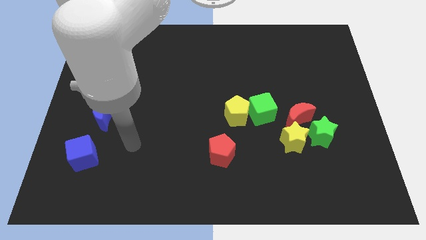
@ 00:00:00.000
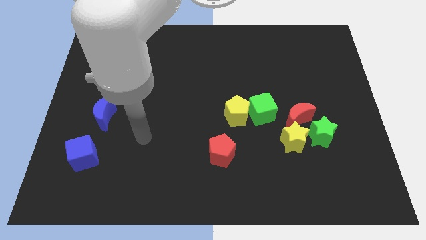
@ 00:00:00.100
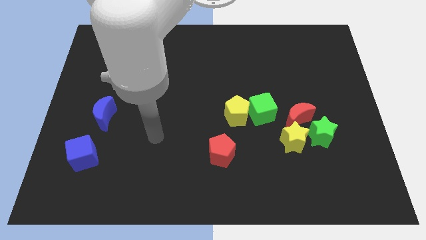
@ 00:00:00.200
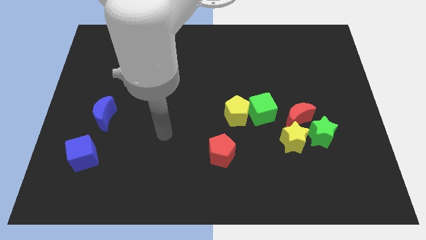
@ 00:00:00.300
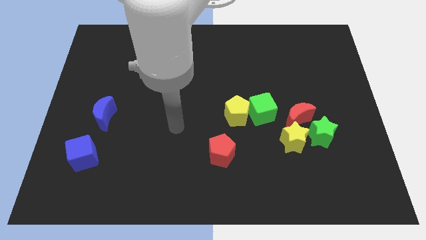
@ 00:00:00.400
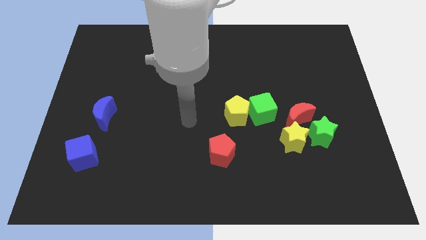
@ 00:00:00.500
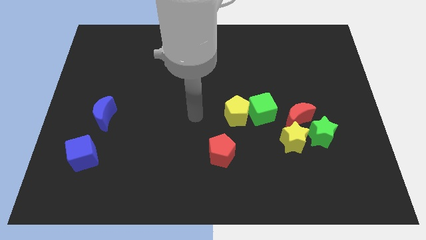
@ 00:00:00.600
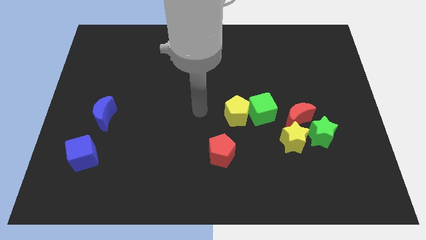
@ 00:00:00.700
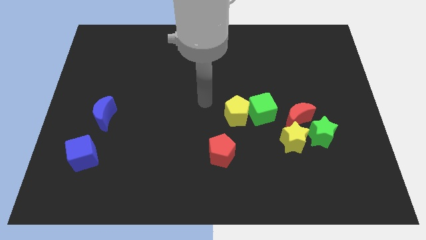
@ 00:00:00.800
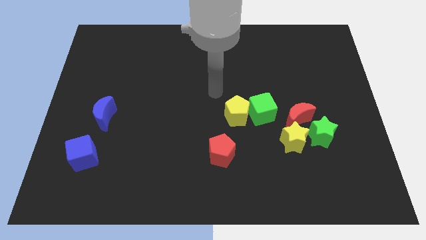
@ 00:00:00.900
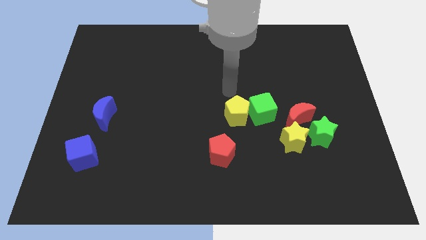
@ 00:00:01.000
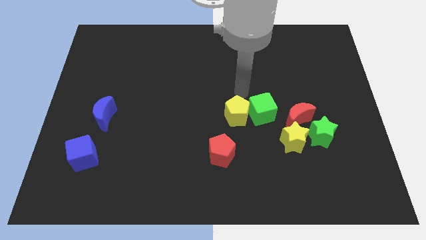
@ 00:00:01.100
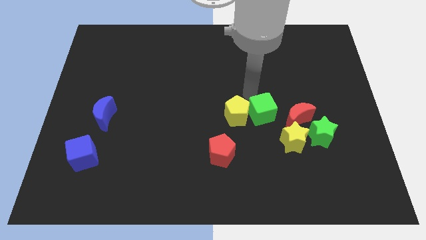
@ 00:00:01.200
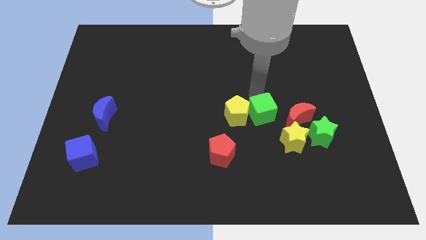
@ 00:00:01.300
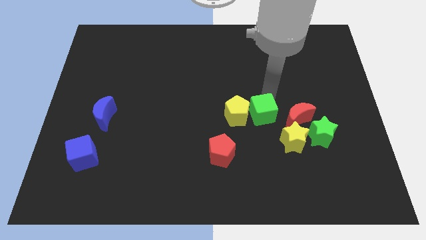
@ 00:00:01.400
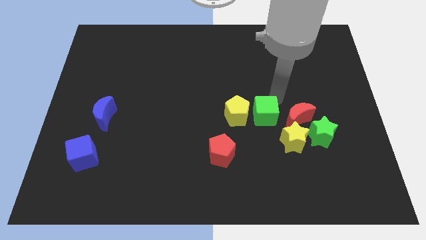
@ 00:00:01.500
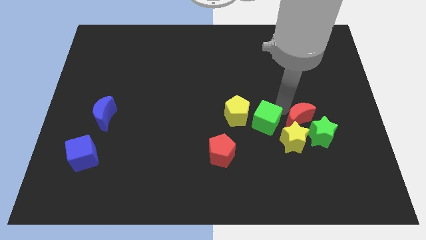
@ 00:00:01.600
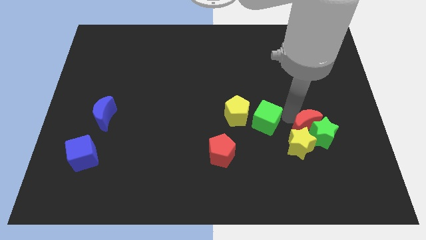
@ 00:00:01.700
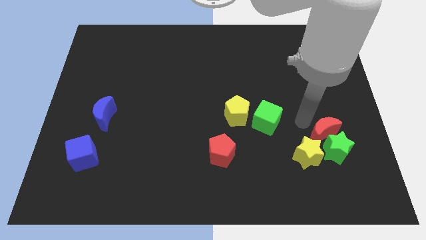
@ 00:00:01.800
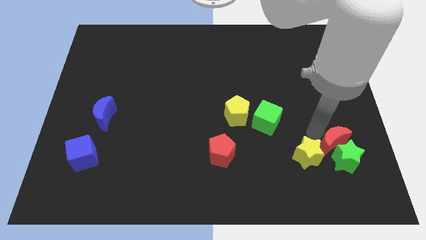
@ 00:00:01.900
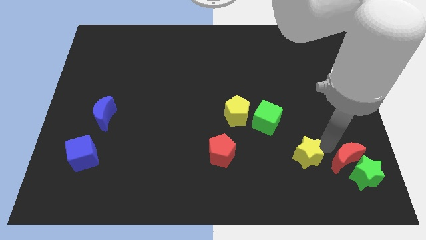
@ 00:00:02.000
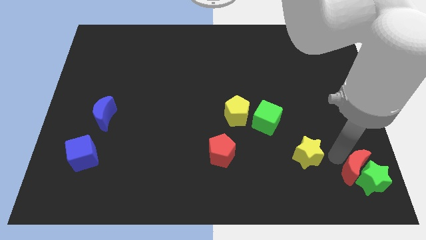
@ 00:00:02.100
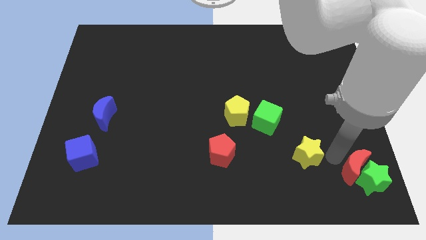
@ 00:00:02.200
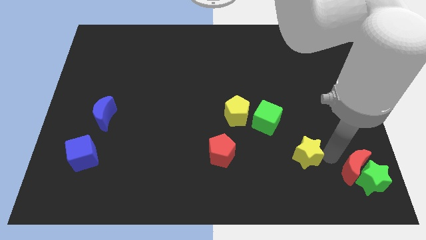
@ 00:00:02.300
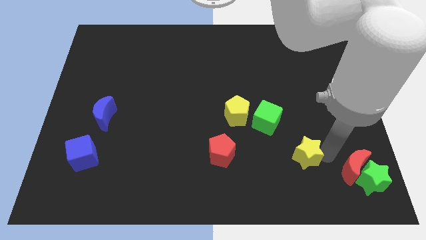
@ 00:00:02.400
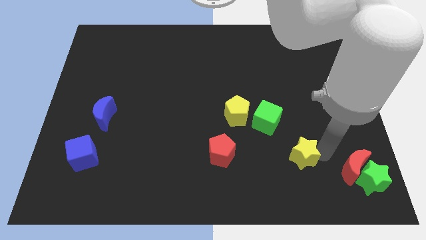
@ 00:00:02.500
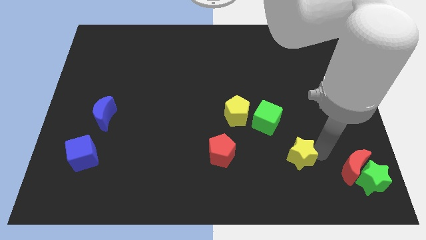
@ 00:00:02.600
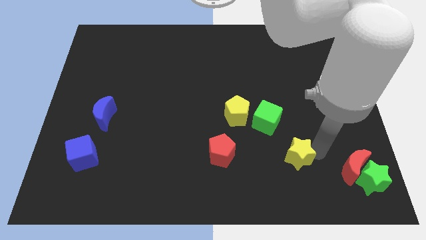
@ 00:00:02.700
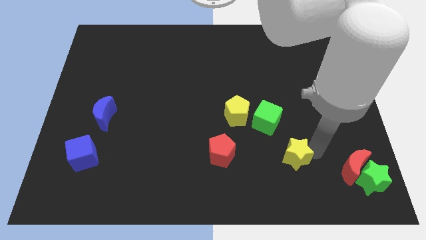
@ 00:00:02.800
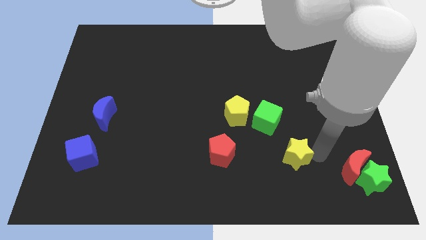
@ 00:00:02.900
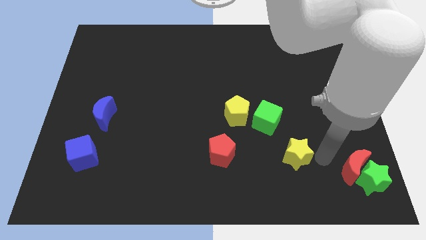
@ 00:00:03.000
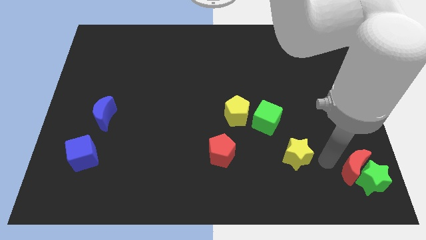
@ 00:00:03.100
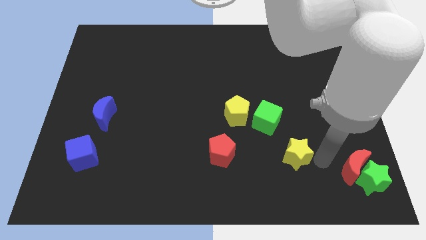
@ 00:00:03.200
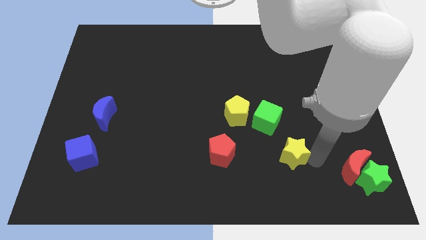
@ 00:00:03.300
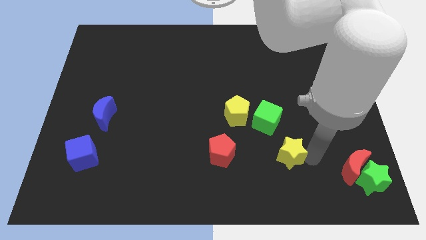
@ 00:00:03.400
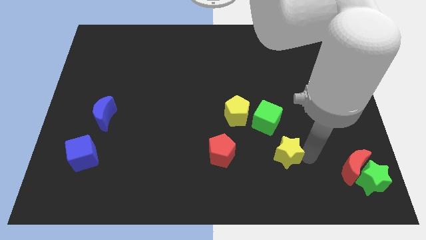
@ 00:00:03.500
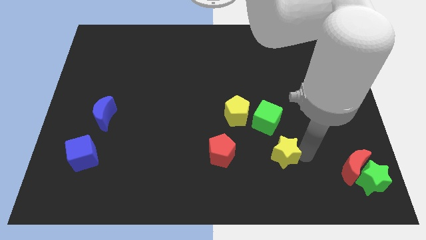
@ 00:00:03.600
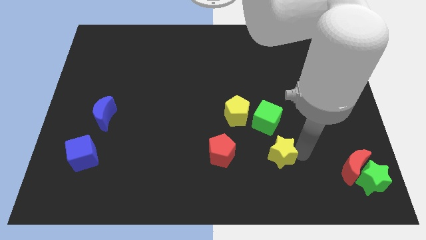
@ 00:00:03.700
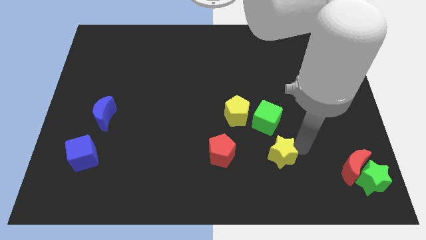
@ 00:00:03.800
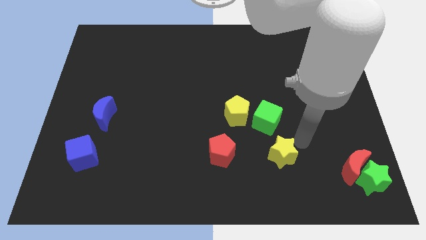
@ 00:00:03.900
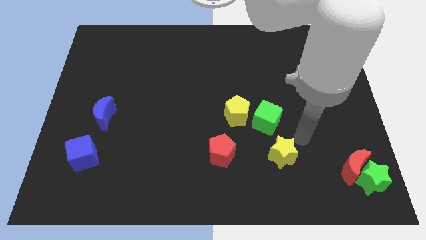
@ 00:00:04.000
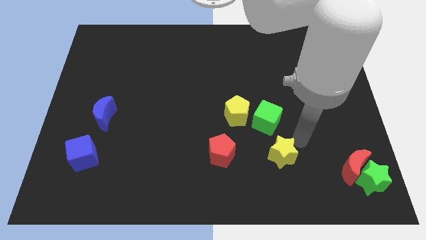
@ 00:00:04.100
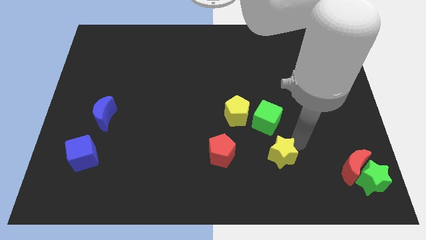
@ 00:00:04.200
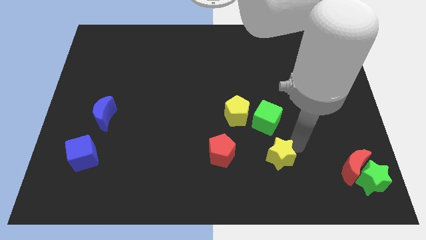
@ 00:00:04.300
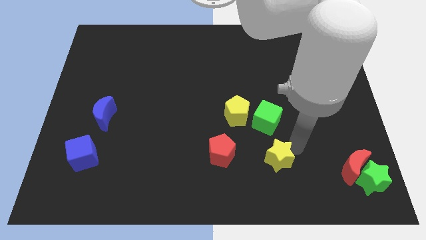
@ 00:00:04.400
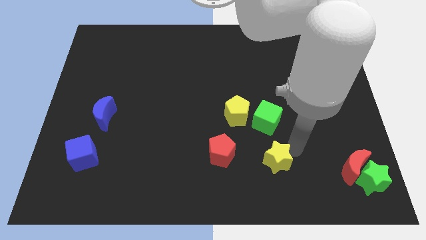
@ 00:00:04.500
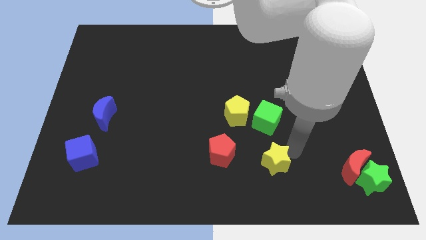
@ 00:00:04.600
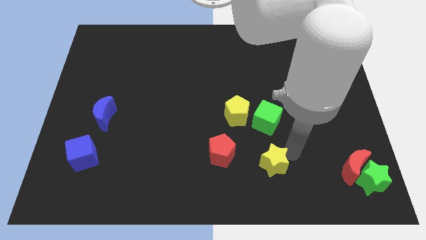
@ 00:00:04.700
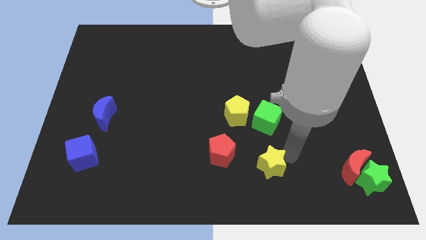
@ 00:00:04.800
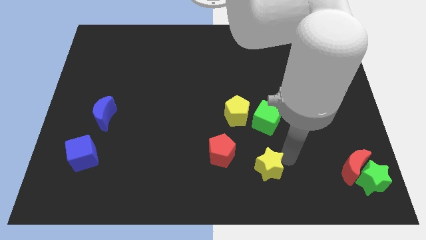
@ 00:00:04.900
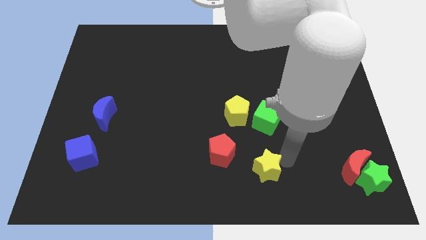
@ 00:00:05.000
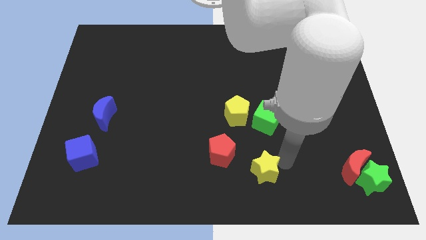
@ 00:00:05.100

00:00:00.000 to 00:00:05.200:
push the yellow star to the bottom

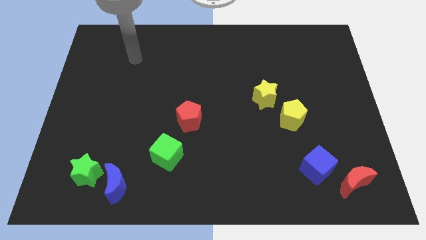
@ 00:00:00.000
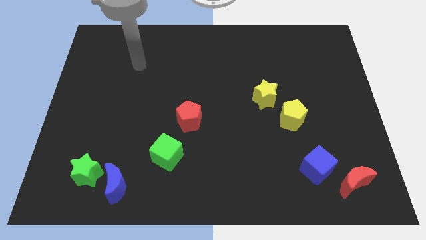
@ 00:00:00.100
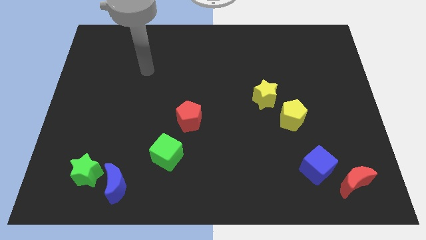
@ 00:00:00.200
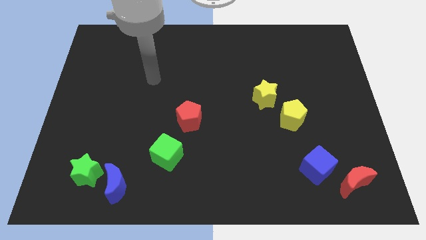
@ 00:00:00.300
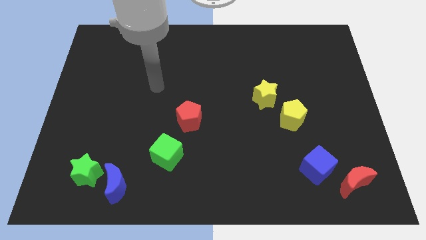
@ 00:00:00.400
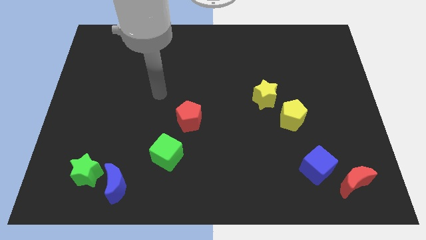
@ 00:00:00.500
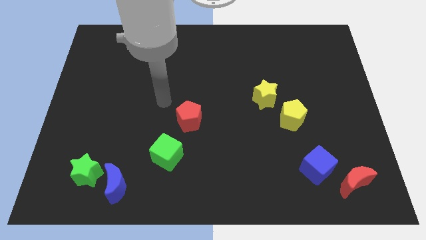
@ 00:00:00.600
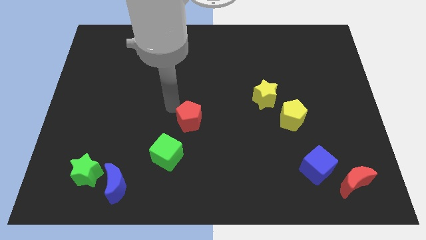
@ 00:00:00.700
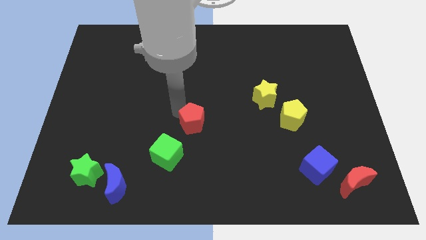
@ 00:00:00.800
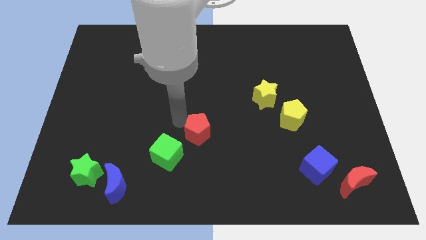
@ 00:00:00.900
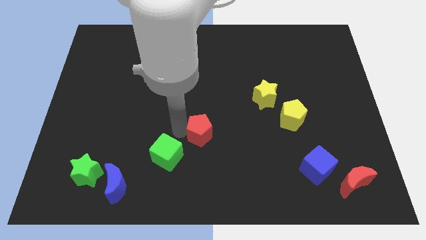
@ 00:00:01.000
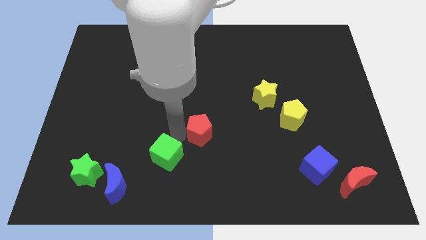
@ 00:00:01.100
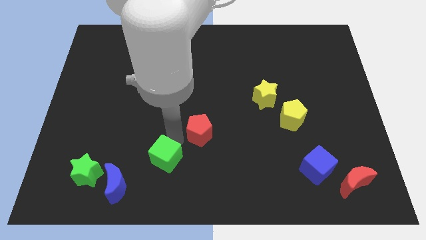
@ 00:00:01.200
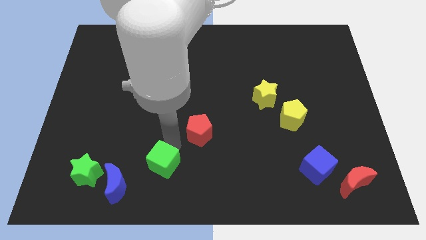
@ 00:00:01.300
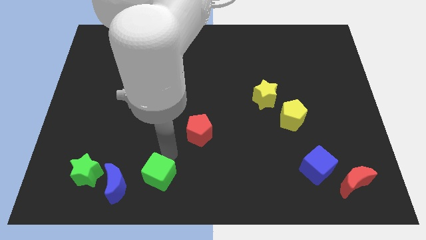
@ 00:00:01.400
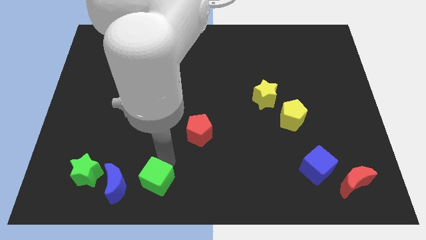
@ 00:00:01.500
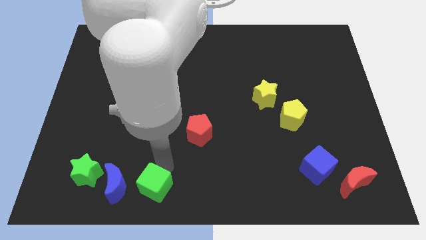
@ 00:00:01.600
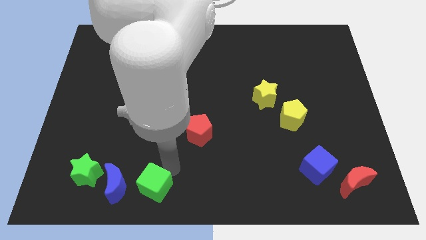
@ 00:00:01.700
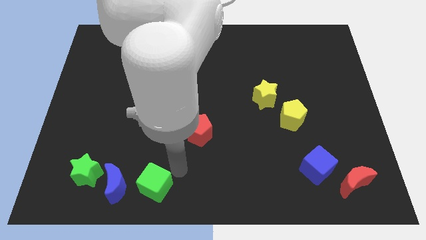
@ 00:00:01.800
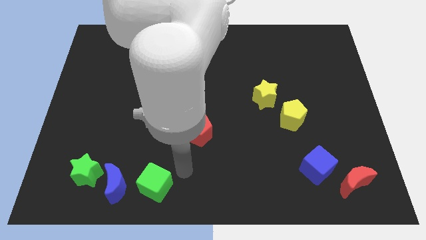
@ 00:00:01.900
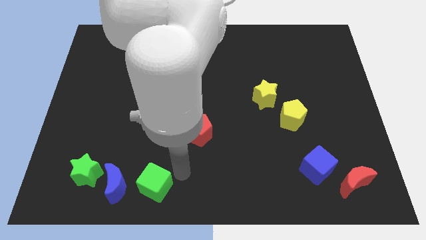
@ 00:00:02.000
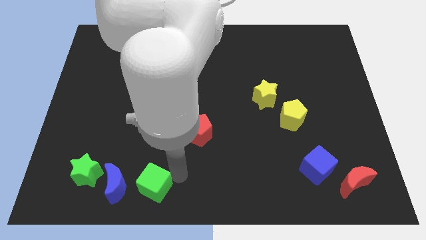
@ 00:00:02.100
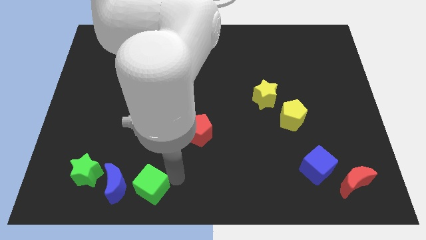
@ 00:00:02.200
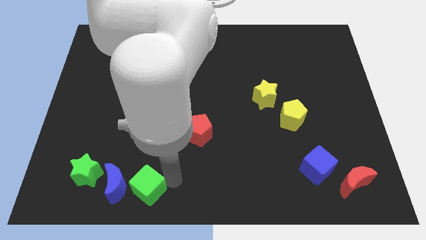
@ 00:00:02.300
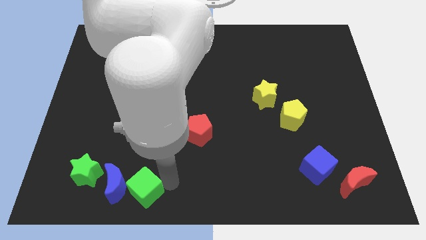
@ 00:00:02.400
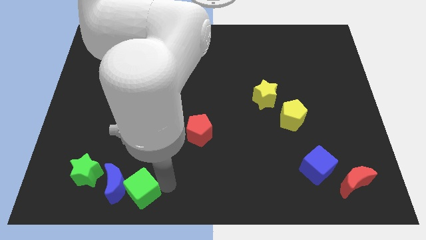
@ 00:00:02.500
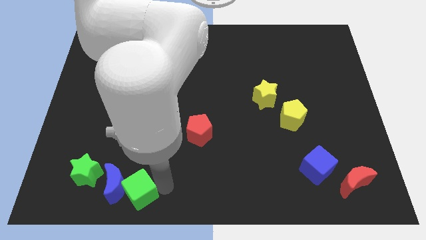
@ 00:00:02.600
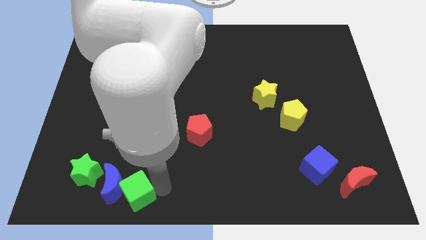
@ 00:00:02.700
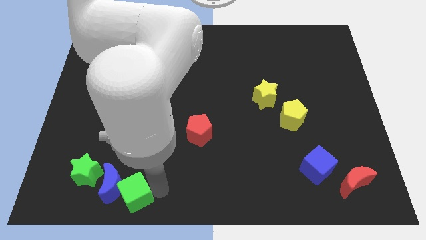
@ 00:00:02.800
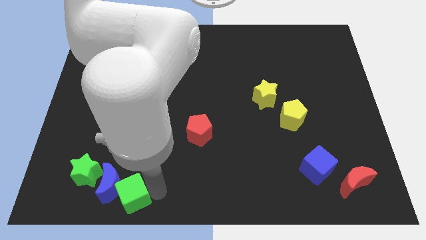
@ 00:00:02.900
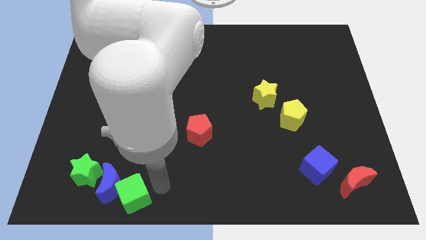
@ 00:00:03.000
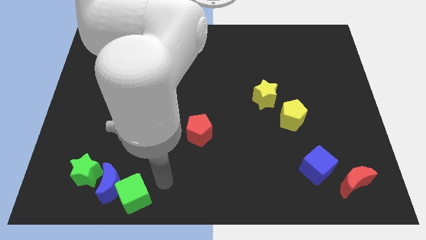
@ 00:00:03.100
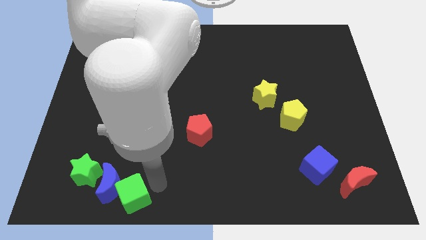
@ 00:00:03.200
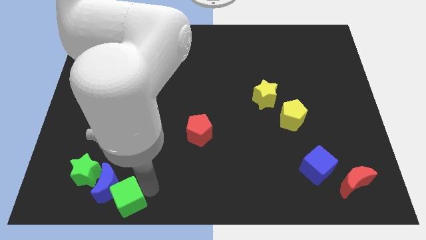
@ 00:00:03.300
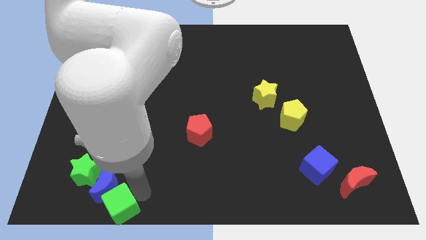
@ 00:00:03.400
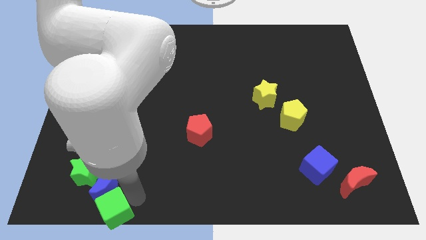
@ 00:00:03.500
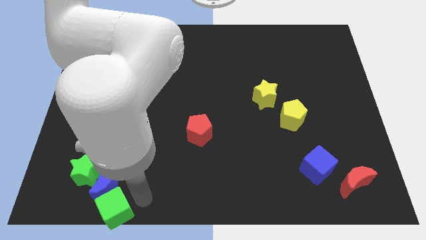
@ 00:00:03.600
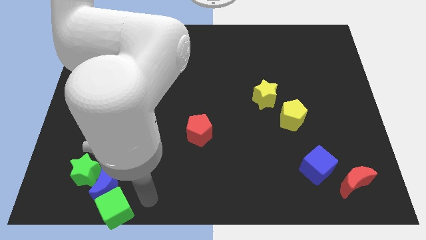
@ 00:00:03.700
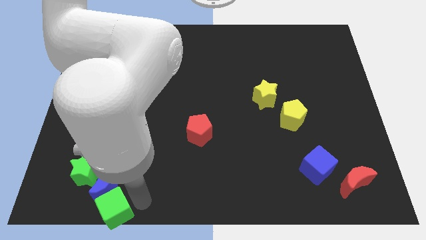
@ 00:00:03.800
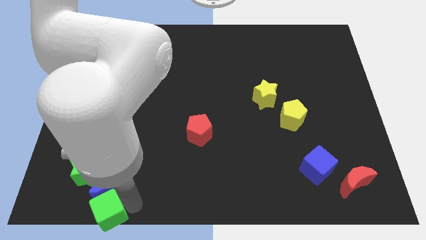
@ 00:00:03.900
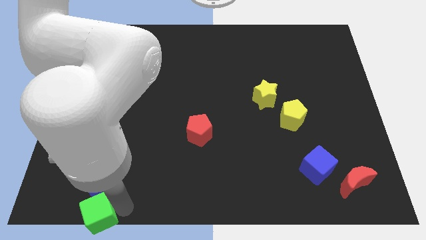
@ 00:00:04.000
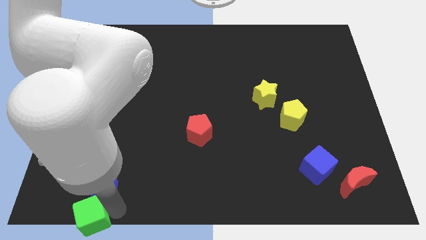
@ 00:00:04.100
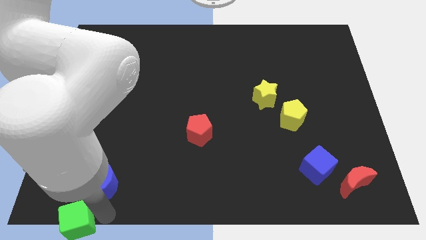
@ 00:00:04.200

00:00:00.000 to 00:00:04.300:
move the green cube to the lower left corner
